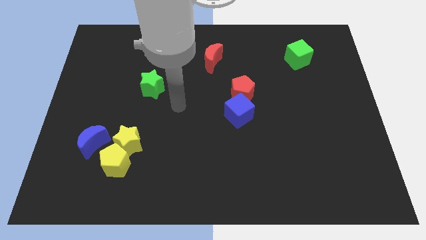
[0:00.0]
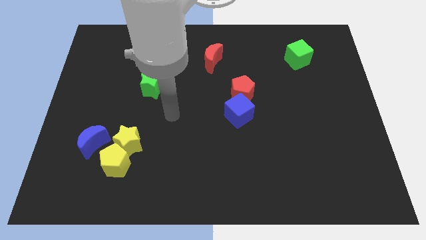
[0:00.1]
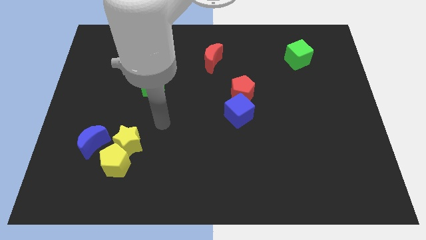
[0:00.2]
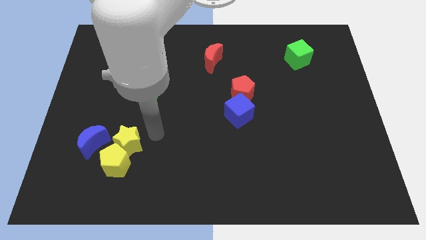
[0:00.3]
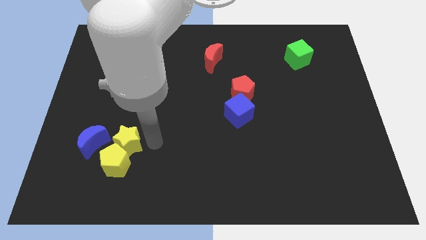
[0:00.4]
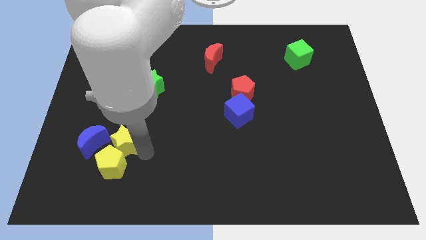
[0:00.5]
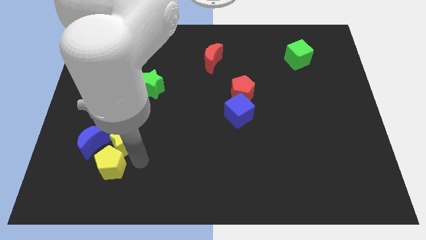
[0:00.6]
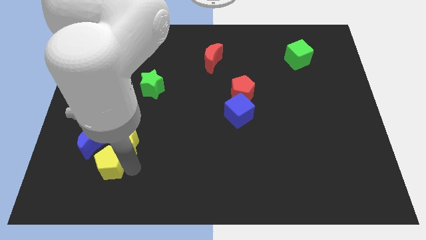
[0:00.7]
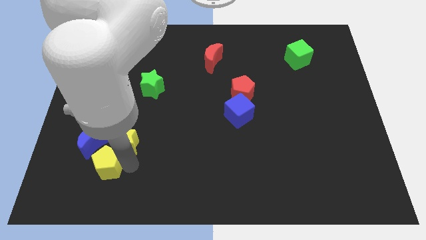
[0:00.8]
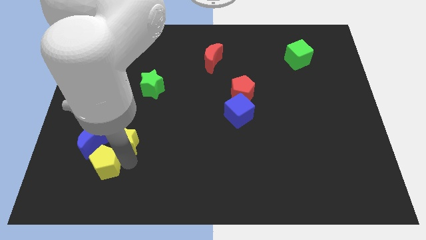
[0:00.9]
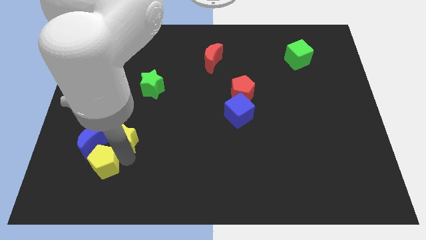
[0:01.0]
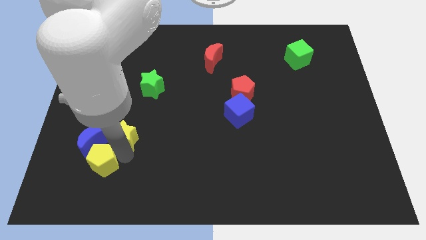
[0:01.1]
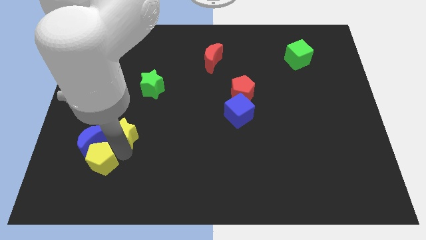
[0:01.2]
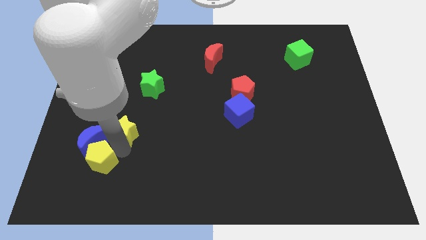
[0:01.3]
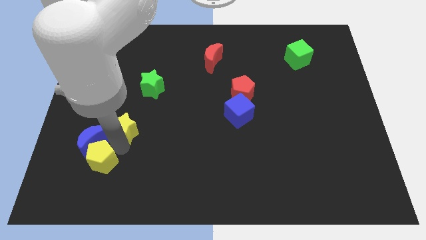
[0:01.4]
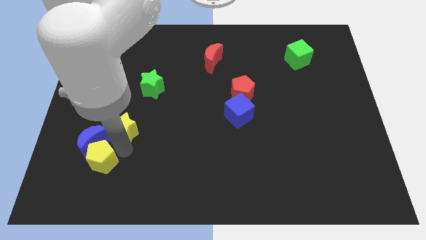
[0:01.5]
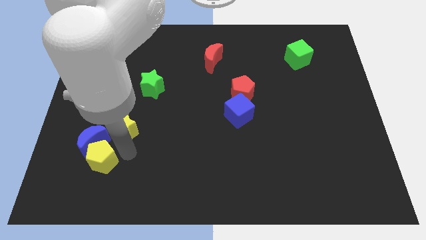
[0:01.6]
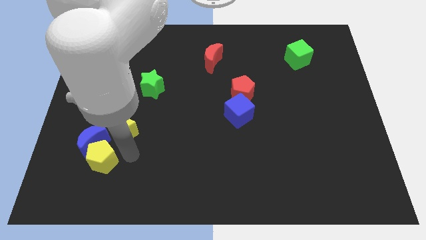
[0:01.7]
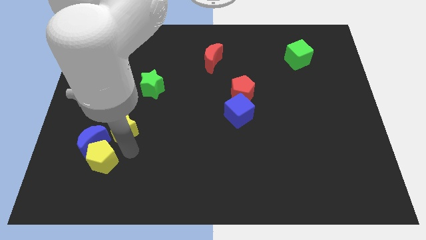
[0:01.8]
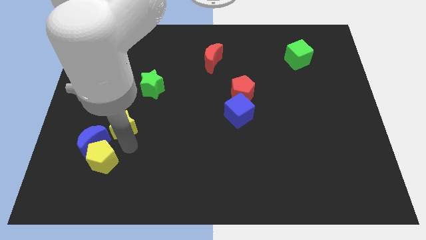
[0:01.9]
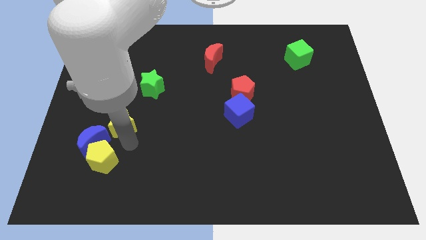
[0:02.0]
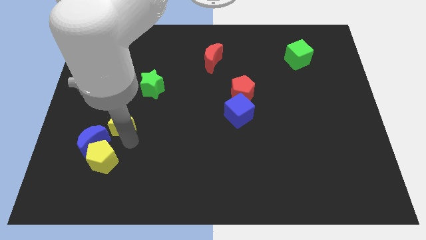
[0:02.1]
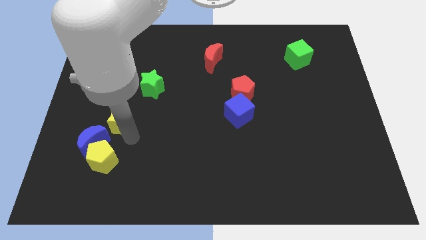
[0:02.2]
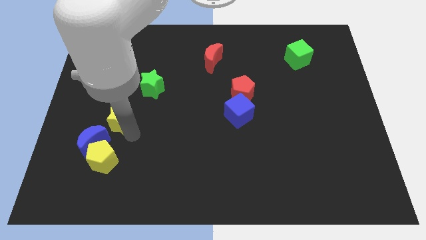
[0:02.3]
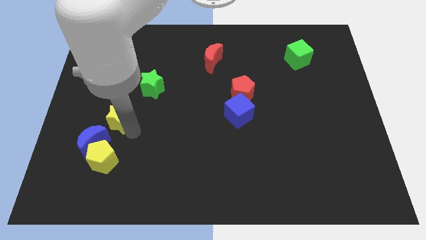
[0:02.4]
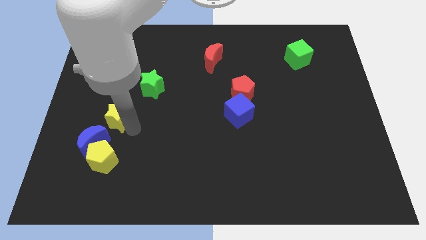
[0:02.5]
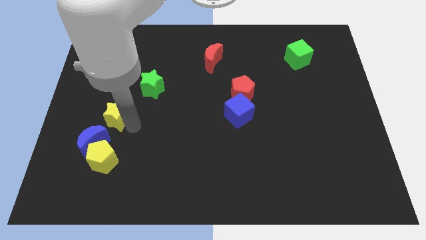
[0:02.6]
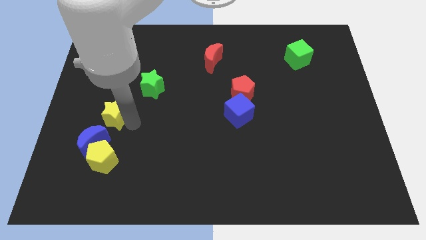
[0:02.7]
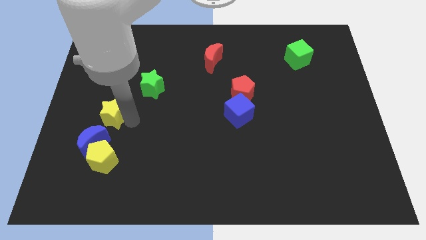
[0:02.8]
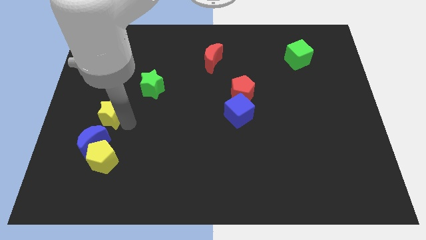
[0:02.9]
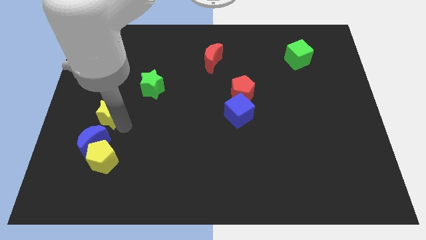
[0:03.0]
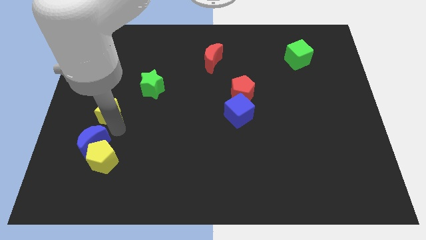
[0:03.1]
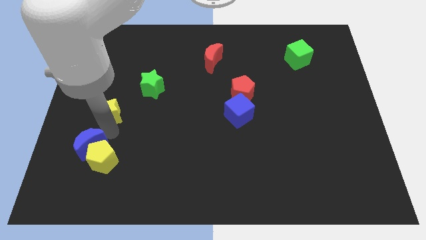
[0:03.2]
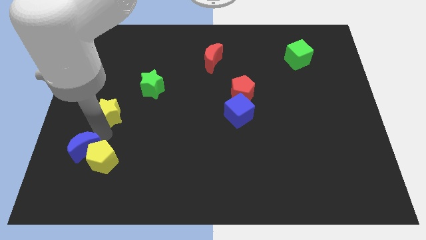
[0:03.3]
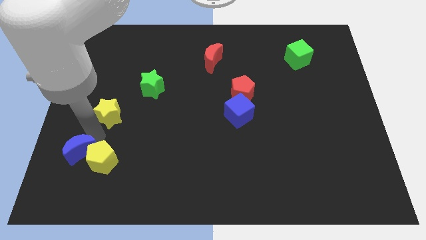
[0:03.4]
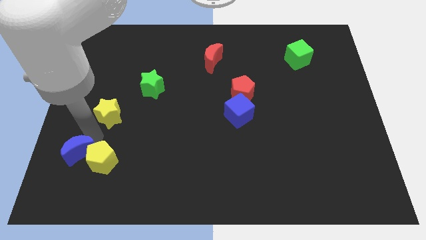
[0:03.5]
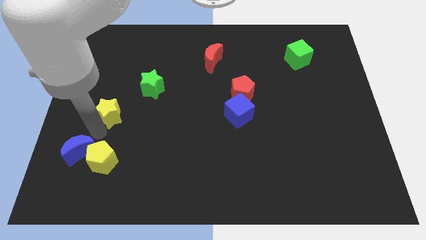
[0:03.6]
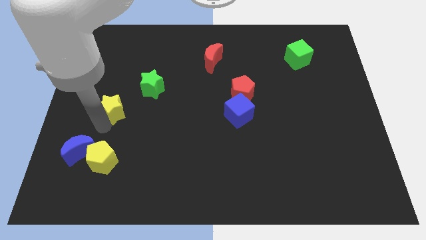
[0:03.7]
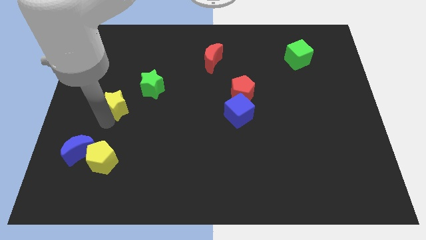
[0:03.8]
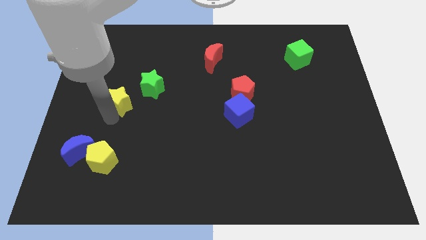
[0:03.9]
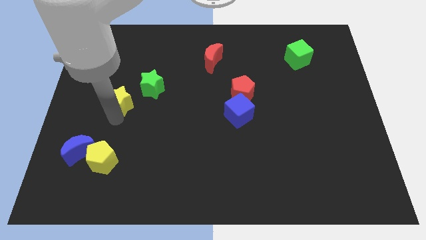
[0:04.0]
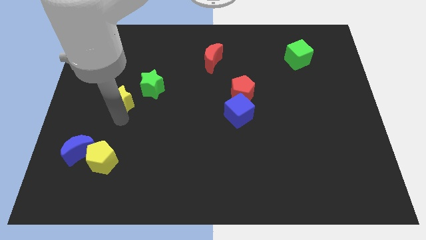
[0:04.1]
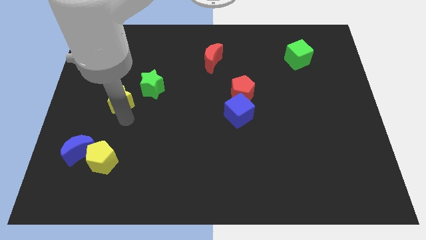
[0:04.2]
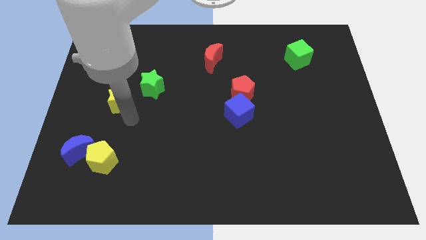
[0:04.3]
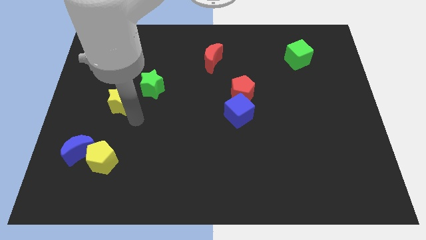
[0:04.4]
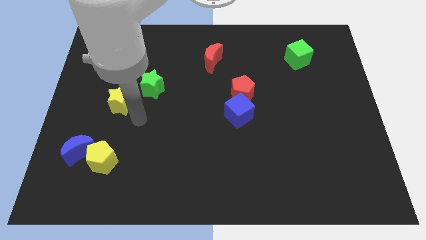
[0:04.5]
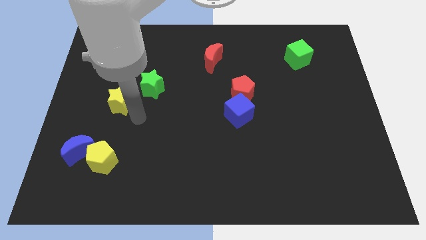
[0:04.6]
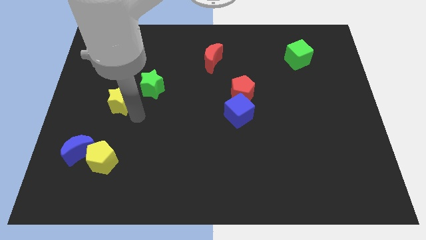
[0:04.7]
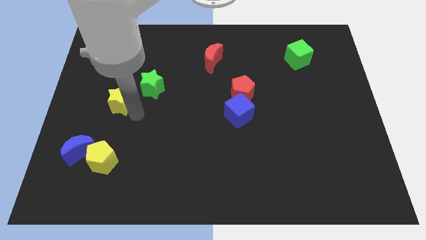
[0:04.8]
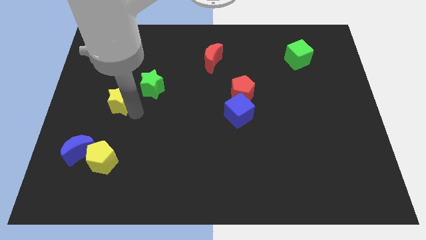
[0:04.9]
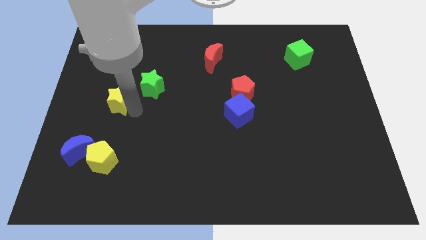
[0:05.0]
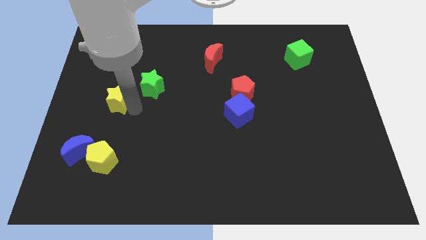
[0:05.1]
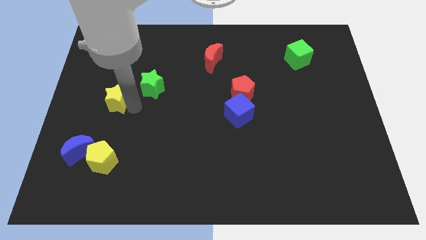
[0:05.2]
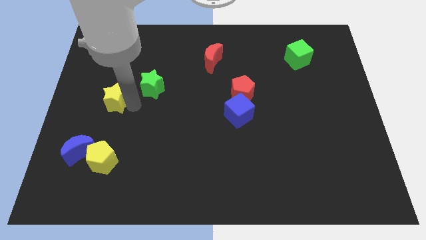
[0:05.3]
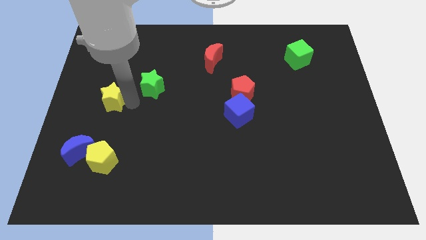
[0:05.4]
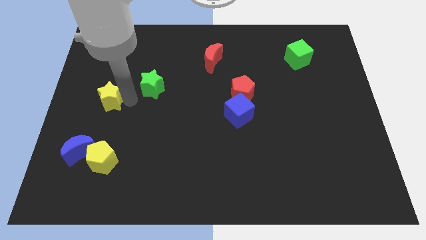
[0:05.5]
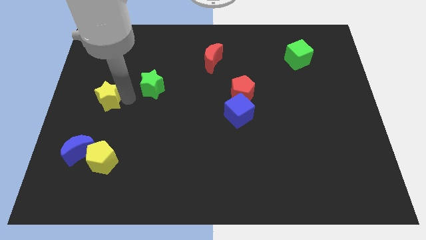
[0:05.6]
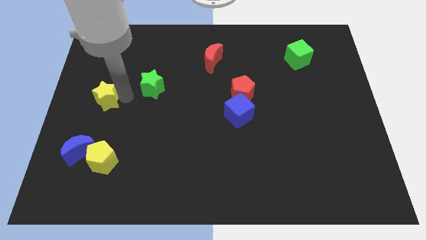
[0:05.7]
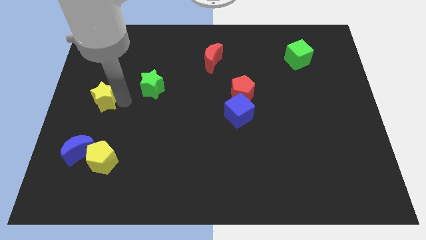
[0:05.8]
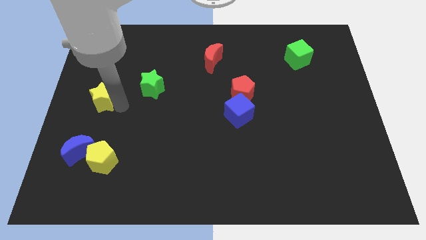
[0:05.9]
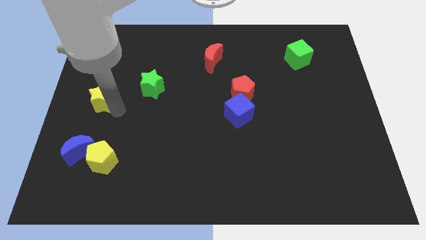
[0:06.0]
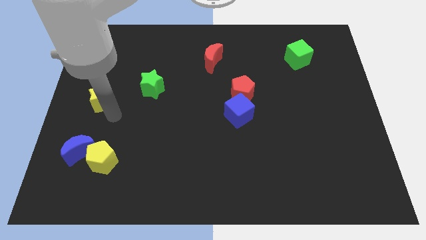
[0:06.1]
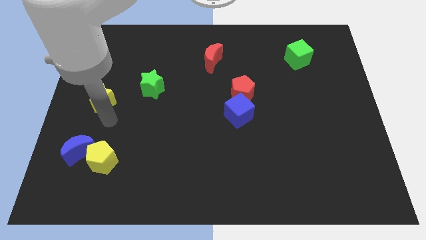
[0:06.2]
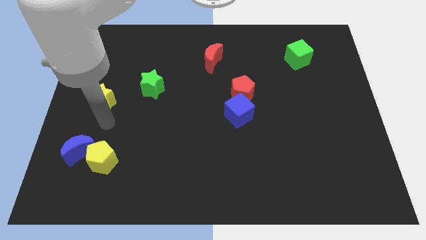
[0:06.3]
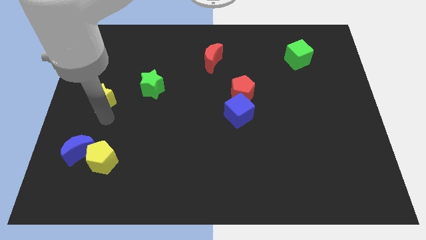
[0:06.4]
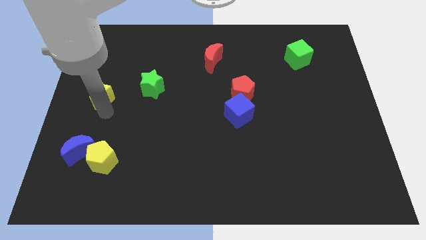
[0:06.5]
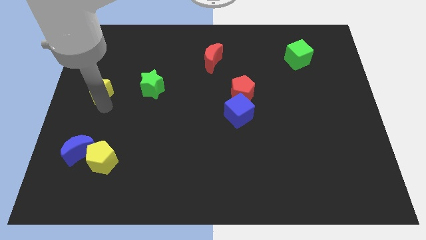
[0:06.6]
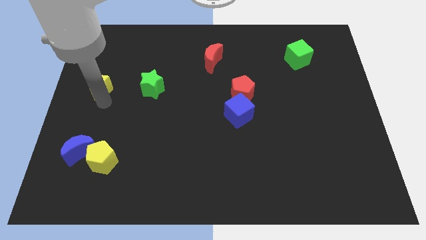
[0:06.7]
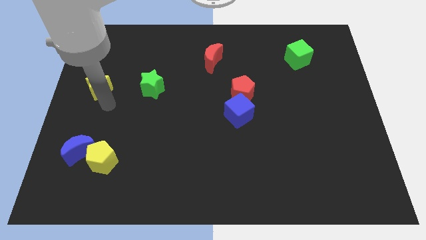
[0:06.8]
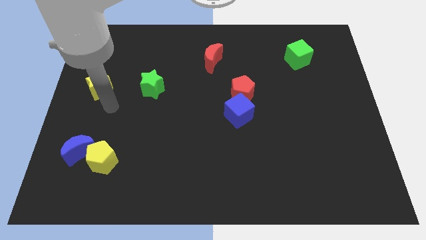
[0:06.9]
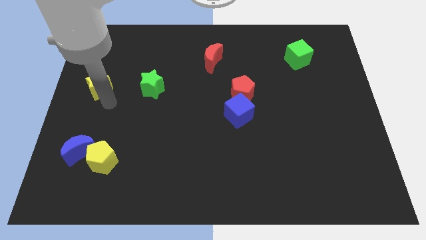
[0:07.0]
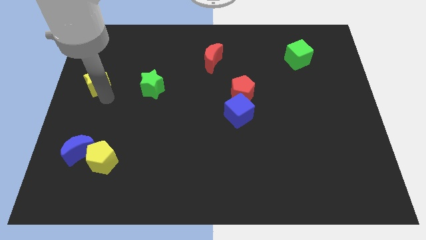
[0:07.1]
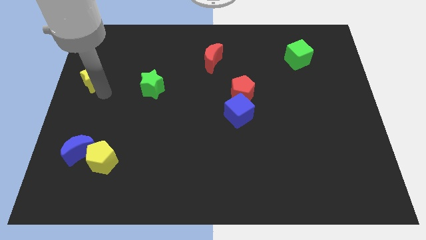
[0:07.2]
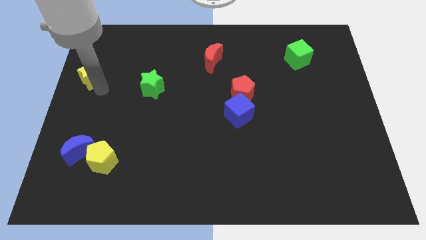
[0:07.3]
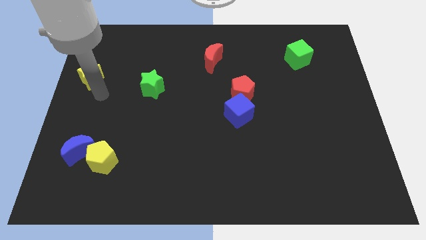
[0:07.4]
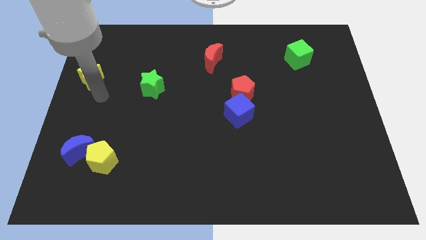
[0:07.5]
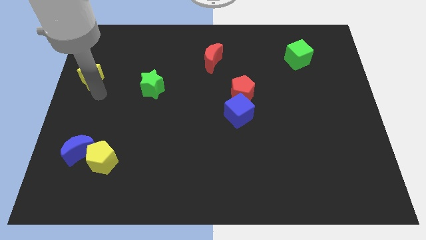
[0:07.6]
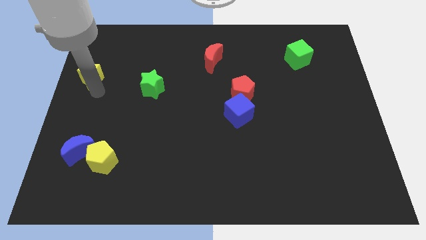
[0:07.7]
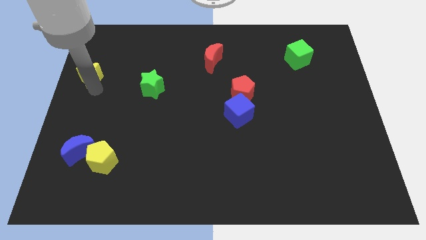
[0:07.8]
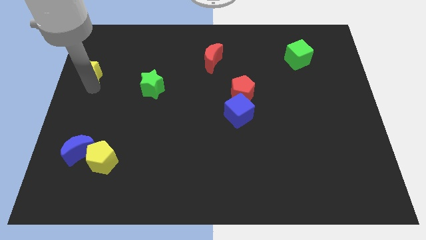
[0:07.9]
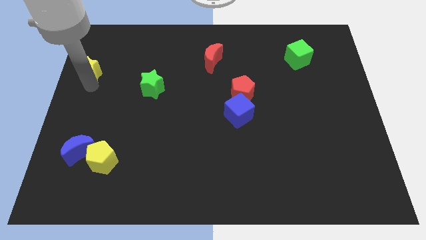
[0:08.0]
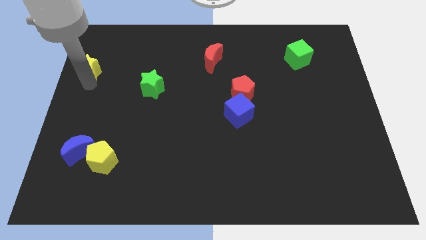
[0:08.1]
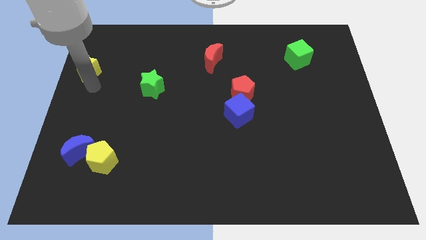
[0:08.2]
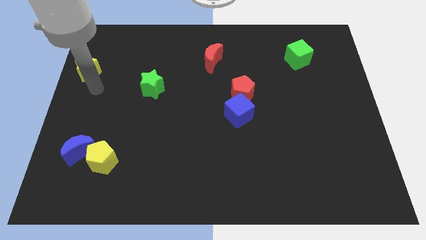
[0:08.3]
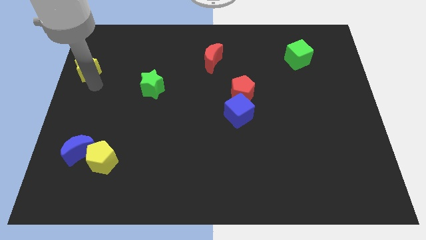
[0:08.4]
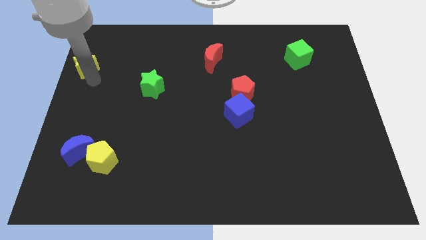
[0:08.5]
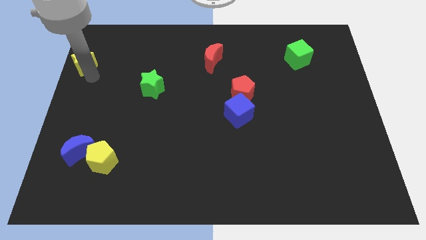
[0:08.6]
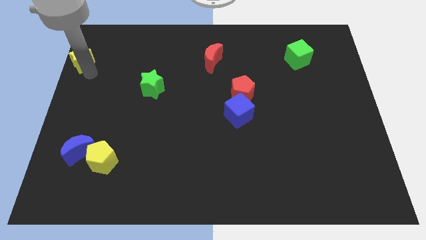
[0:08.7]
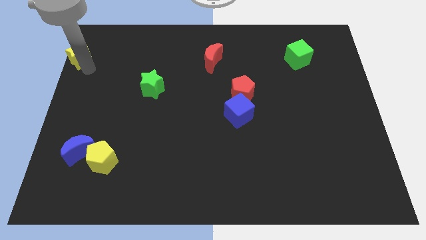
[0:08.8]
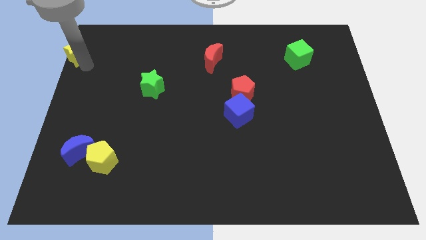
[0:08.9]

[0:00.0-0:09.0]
put the yellow star to the top left corner
